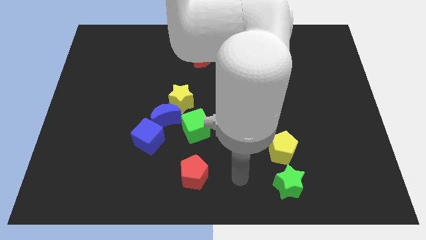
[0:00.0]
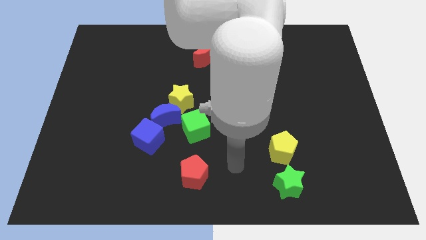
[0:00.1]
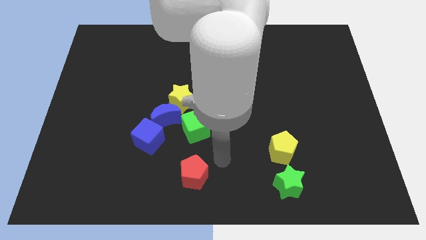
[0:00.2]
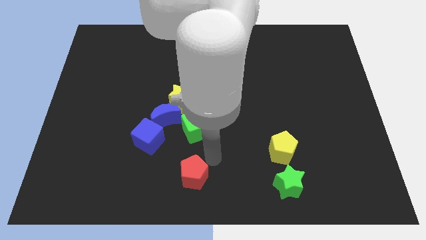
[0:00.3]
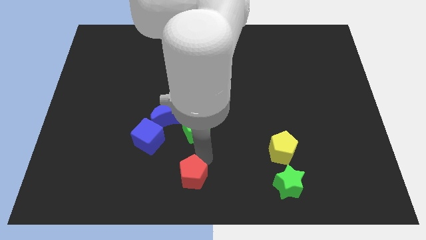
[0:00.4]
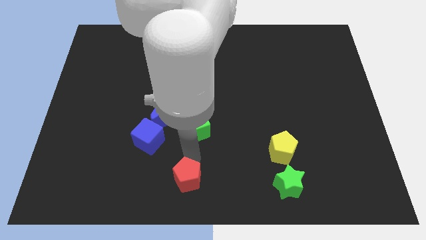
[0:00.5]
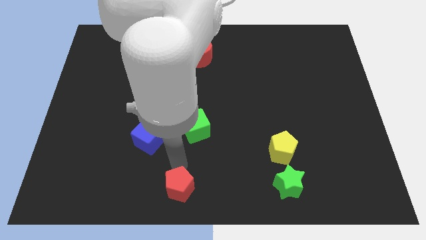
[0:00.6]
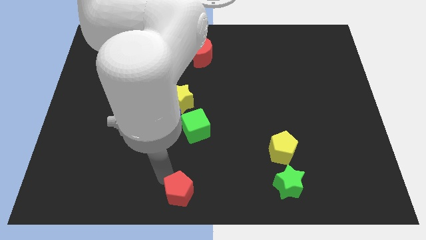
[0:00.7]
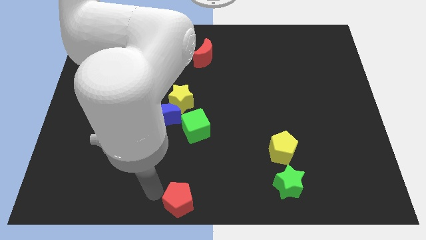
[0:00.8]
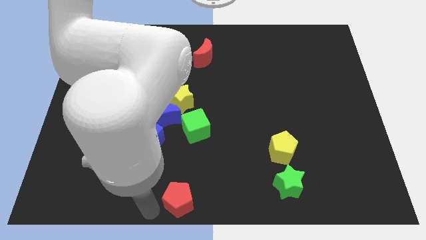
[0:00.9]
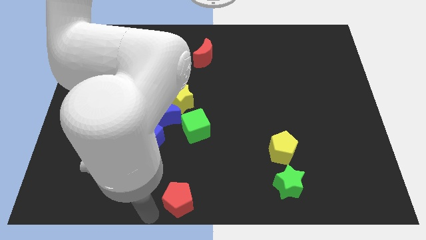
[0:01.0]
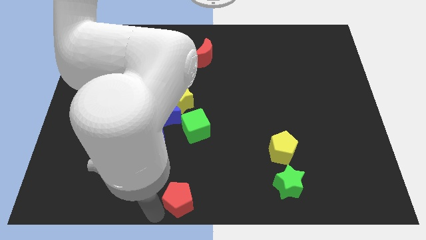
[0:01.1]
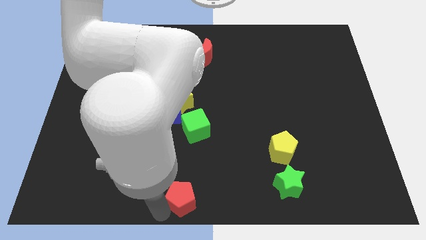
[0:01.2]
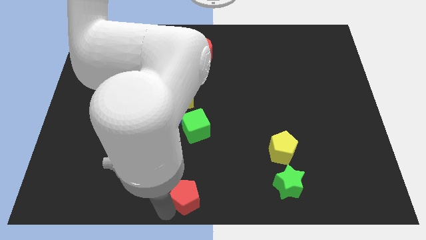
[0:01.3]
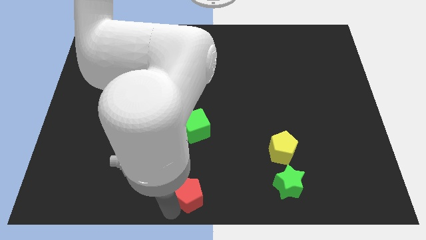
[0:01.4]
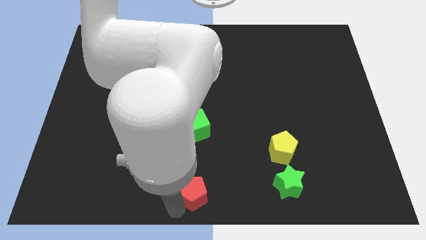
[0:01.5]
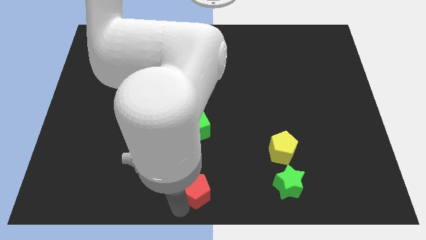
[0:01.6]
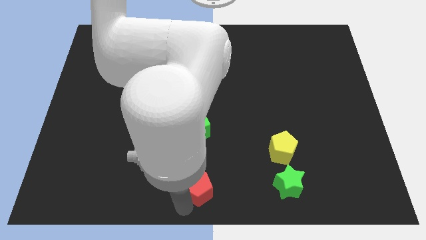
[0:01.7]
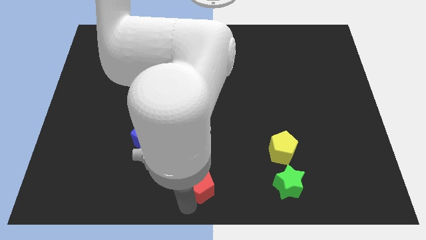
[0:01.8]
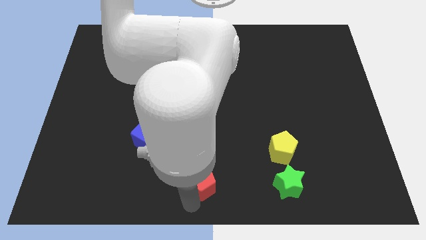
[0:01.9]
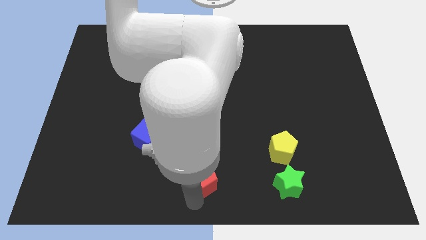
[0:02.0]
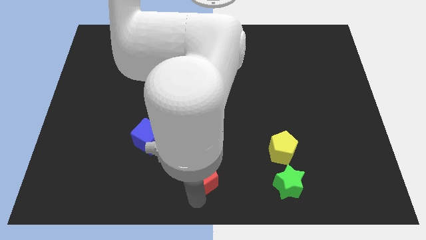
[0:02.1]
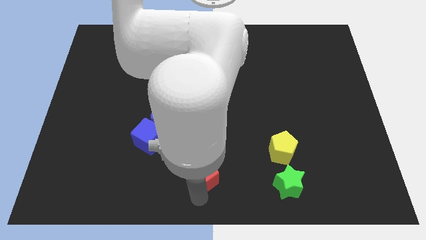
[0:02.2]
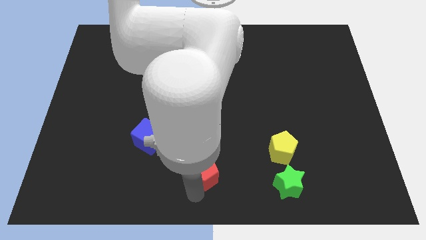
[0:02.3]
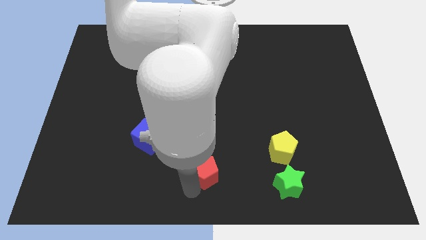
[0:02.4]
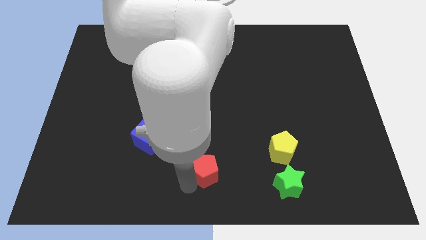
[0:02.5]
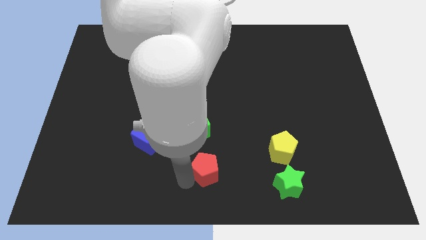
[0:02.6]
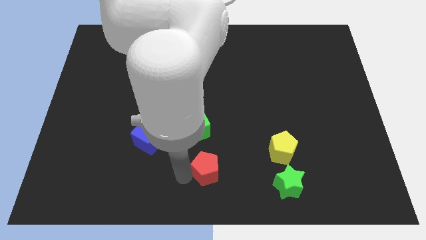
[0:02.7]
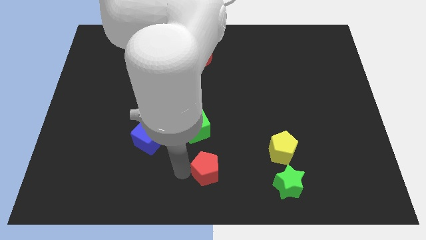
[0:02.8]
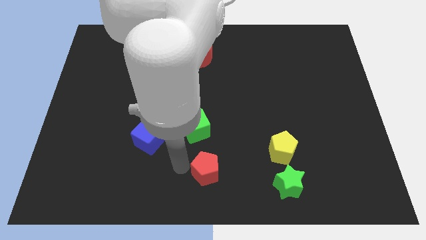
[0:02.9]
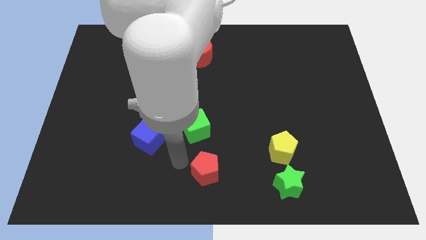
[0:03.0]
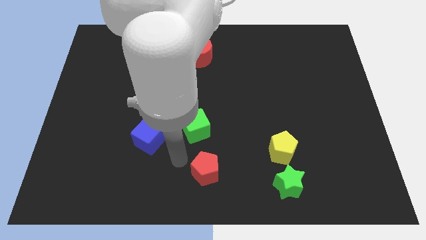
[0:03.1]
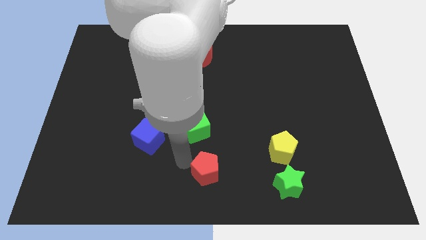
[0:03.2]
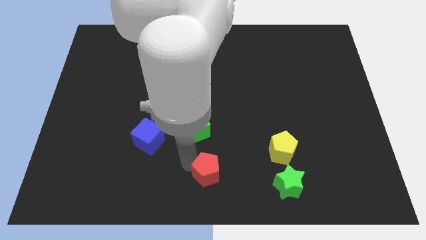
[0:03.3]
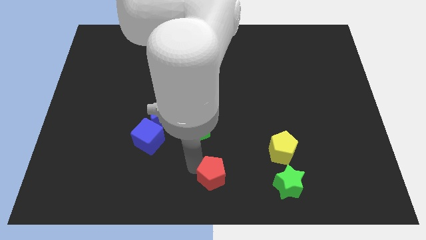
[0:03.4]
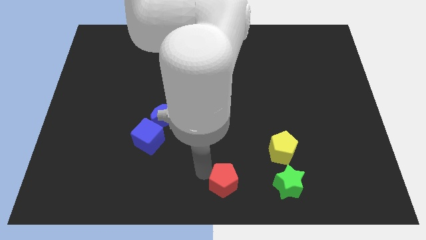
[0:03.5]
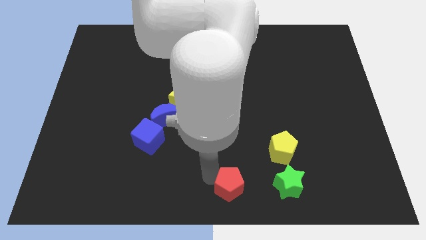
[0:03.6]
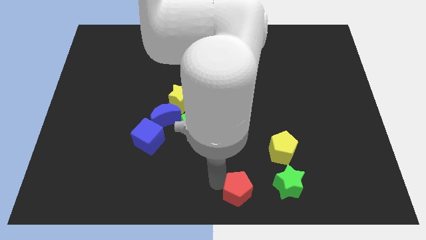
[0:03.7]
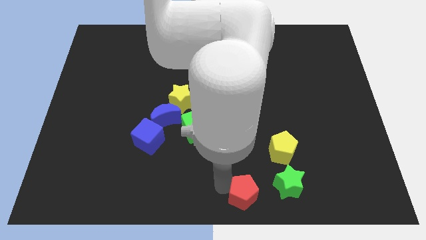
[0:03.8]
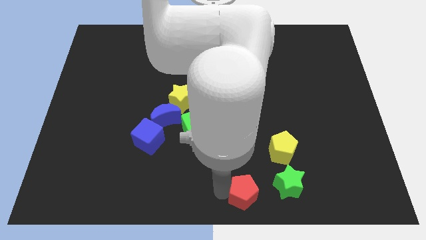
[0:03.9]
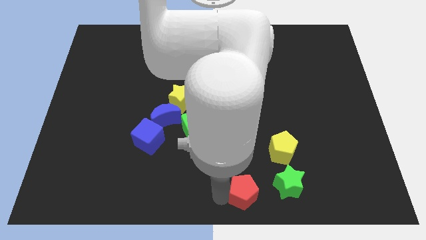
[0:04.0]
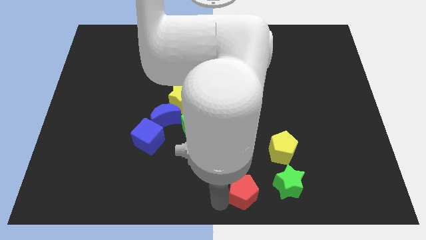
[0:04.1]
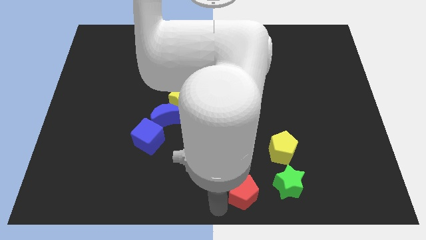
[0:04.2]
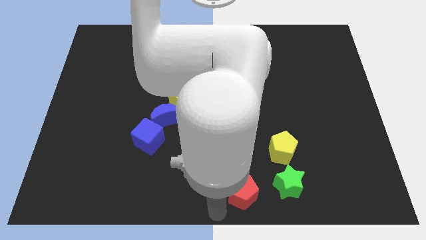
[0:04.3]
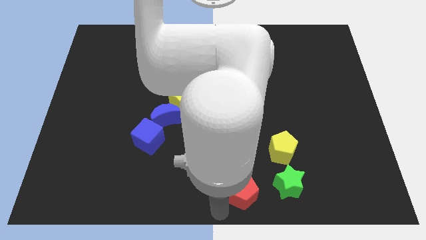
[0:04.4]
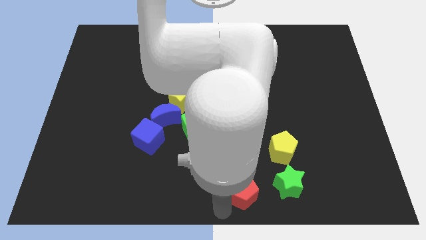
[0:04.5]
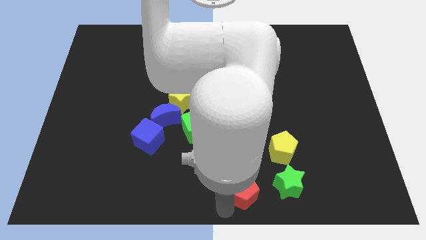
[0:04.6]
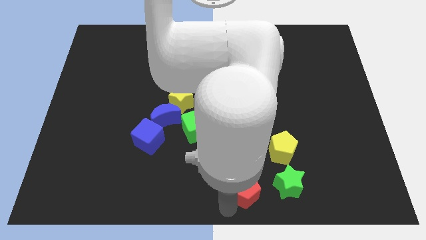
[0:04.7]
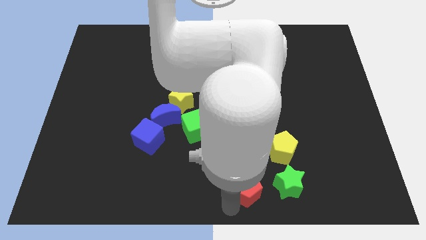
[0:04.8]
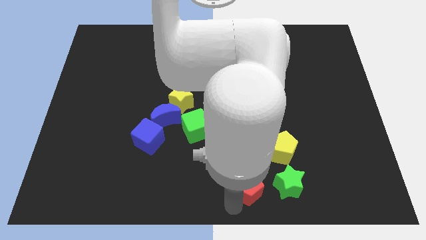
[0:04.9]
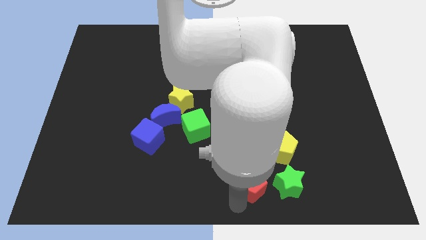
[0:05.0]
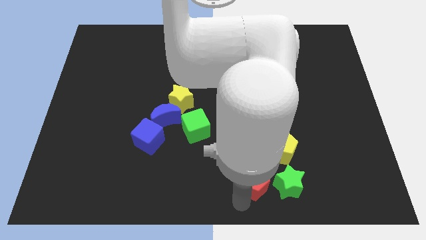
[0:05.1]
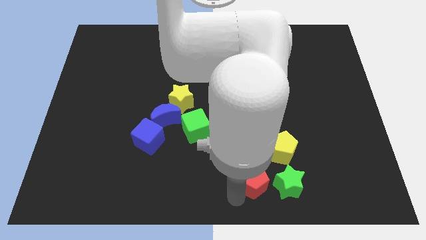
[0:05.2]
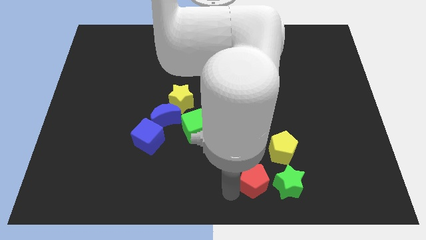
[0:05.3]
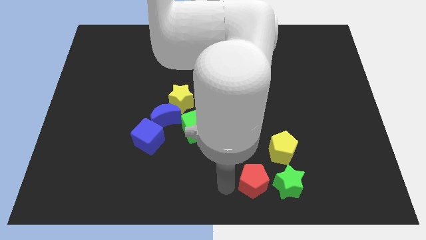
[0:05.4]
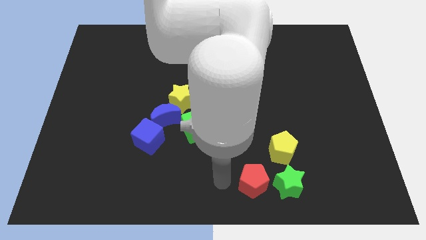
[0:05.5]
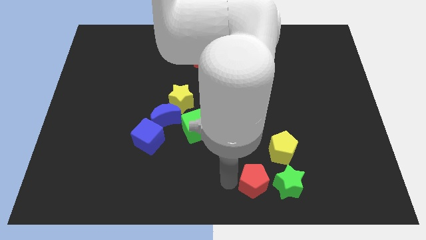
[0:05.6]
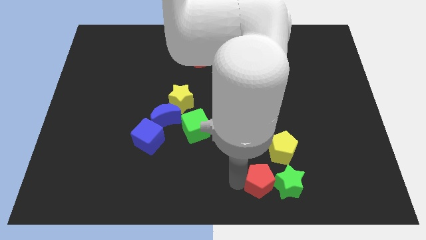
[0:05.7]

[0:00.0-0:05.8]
put the red pentagon close to the green star

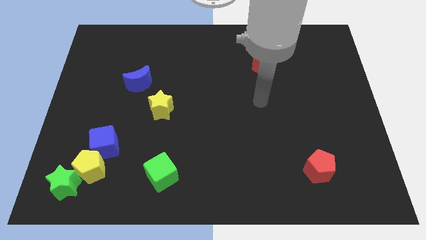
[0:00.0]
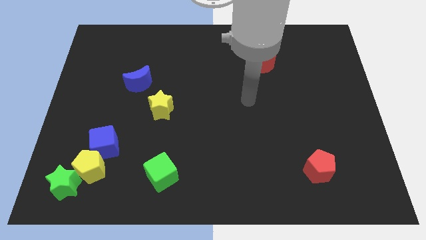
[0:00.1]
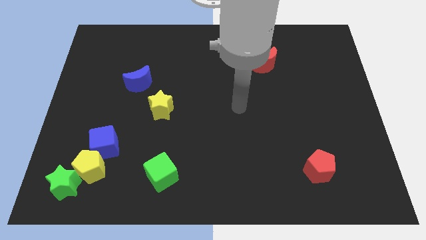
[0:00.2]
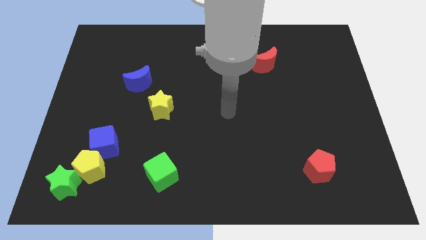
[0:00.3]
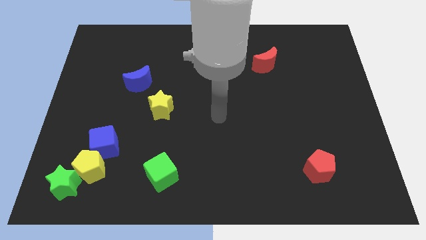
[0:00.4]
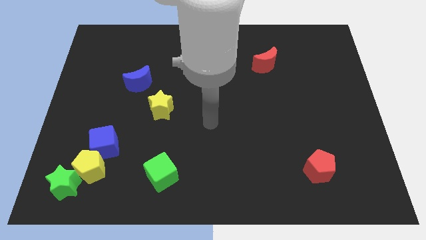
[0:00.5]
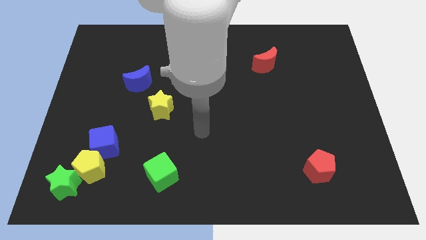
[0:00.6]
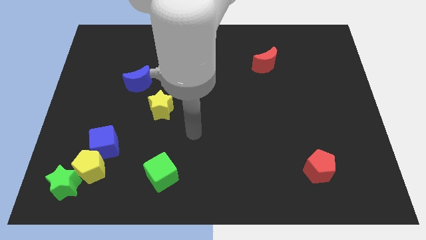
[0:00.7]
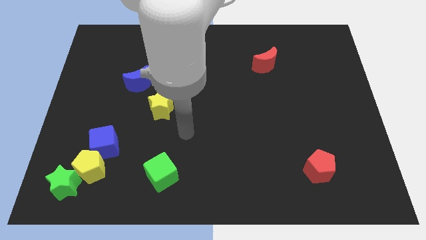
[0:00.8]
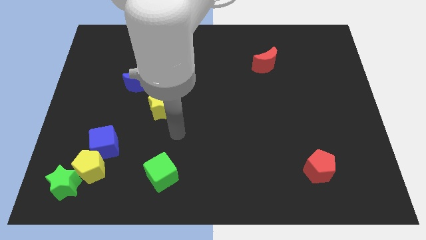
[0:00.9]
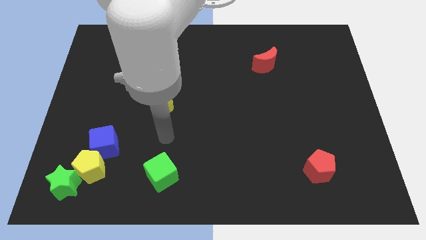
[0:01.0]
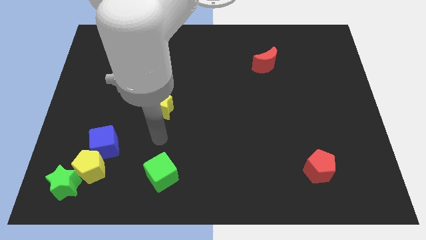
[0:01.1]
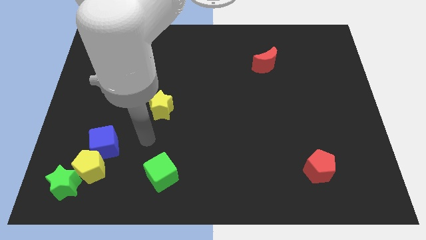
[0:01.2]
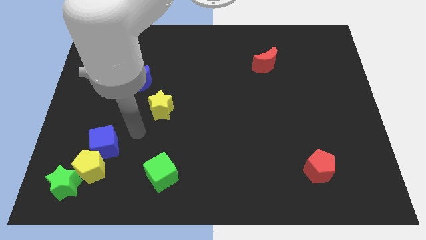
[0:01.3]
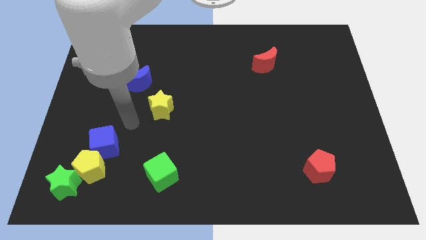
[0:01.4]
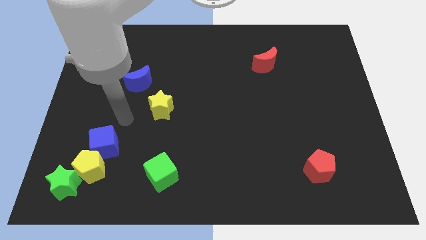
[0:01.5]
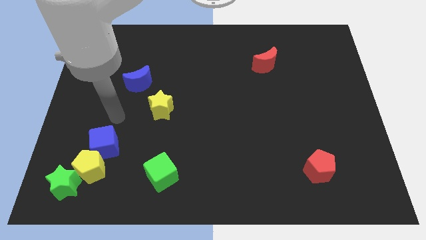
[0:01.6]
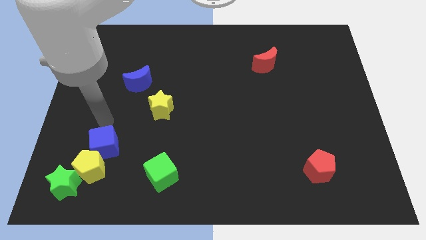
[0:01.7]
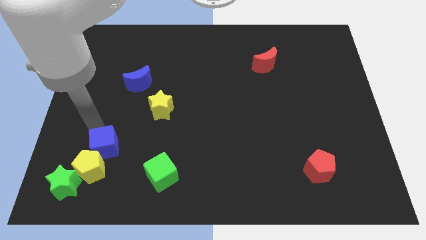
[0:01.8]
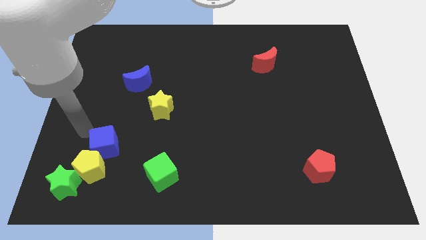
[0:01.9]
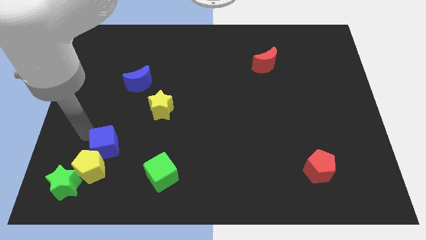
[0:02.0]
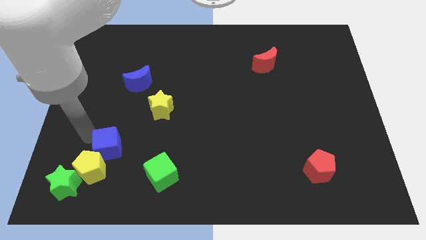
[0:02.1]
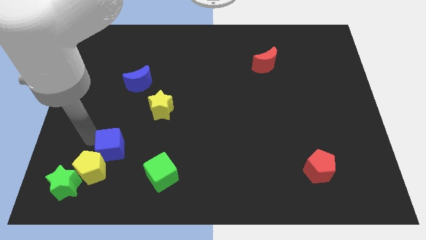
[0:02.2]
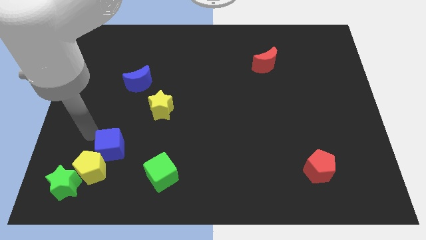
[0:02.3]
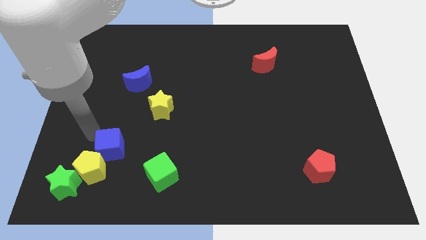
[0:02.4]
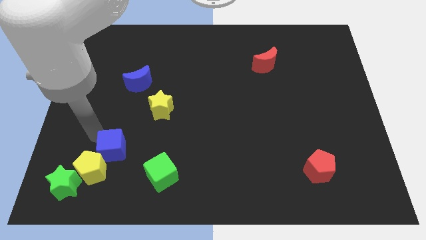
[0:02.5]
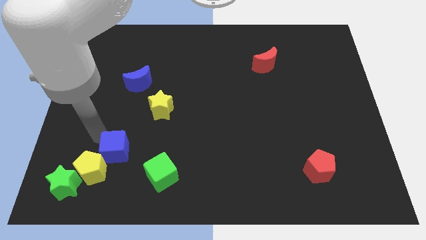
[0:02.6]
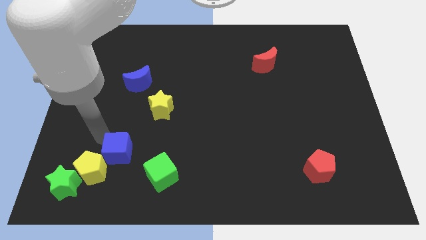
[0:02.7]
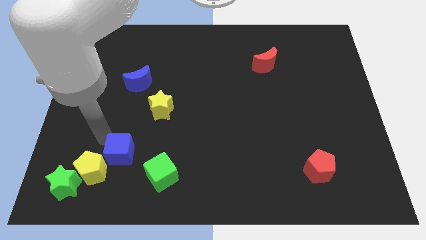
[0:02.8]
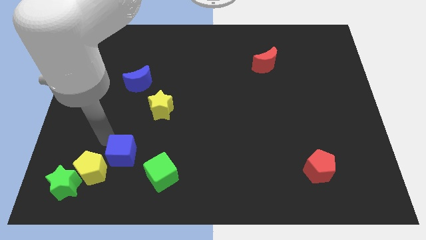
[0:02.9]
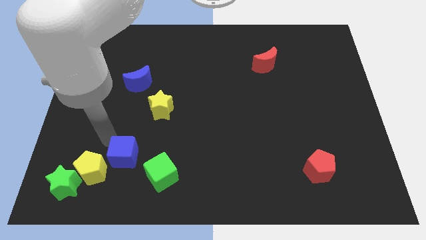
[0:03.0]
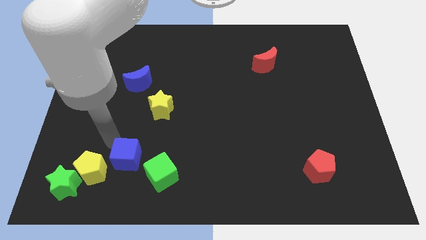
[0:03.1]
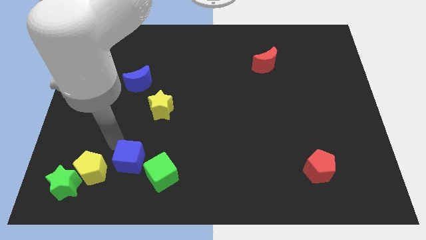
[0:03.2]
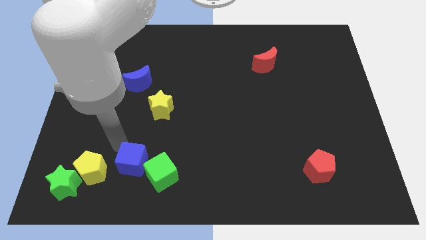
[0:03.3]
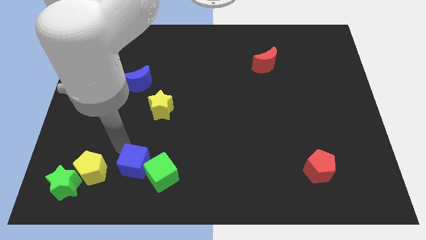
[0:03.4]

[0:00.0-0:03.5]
slide the blue cube next to the green cube
